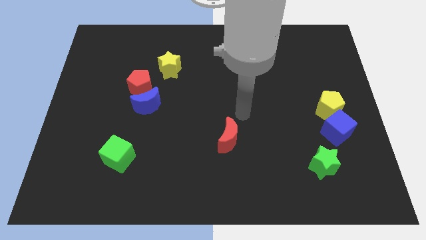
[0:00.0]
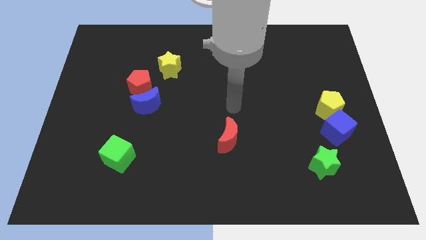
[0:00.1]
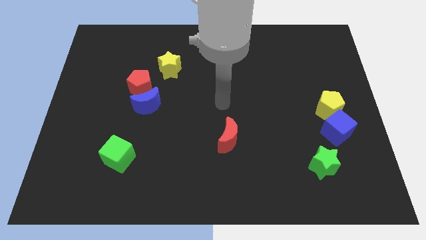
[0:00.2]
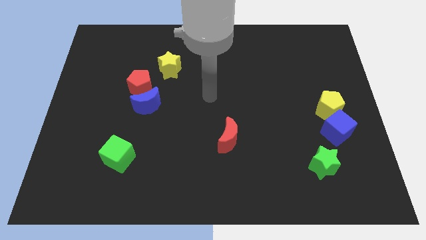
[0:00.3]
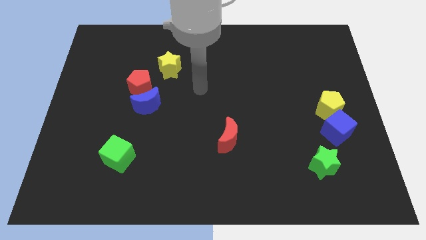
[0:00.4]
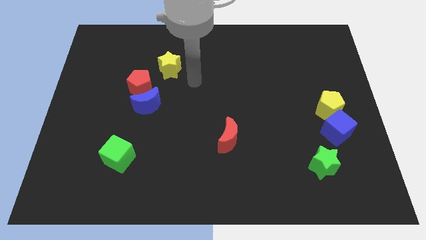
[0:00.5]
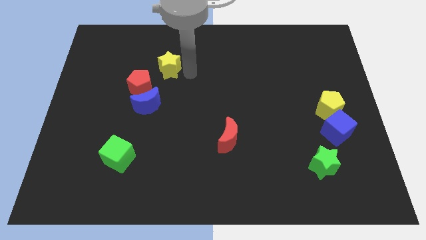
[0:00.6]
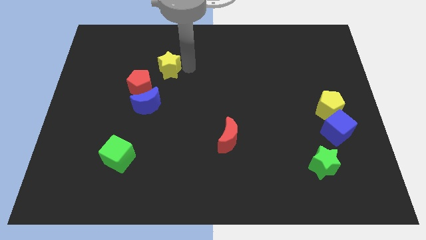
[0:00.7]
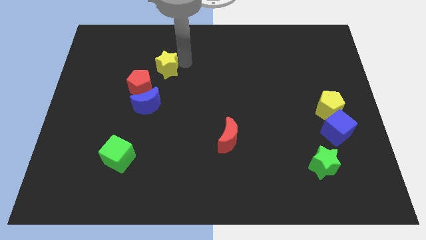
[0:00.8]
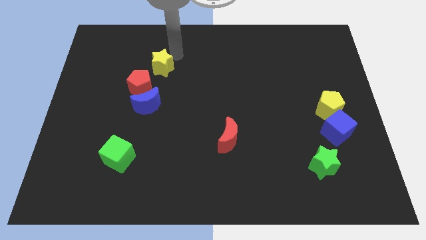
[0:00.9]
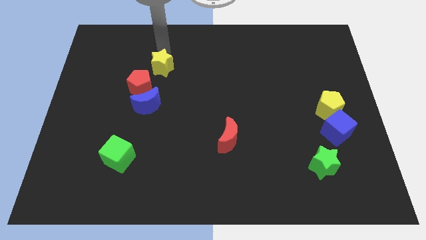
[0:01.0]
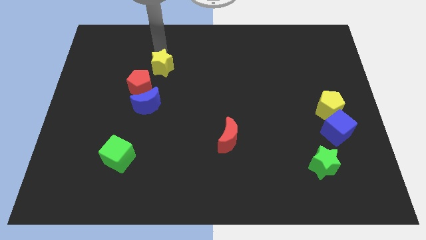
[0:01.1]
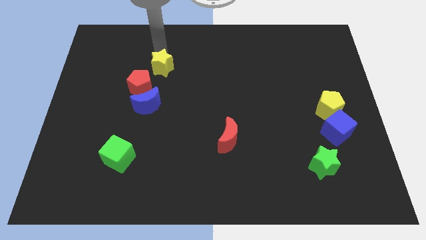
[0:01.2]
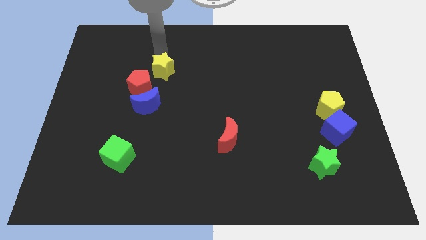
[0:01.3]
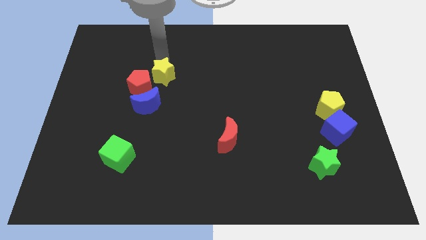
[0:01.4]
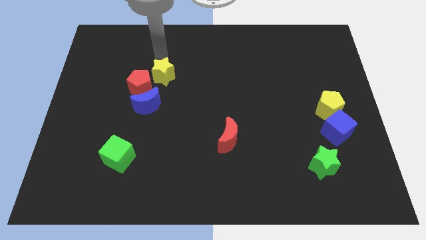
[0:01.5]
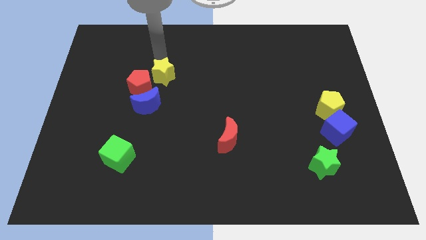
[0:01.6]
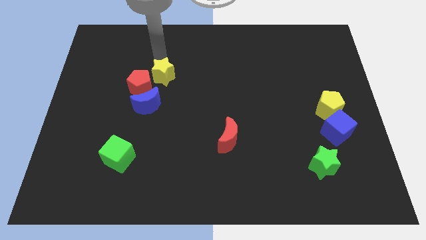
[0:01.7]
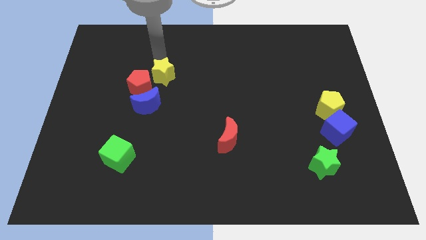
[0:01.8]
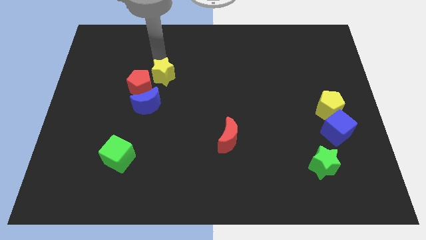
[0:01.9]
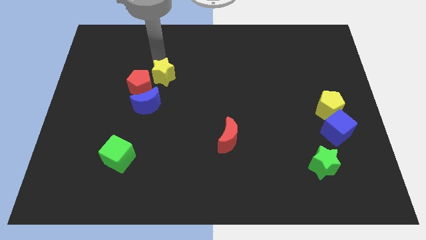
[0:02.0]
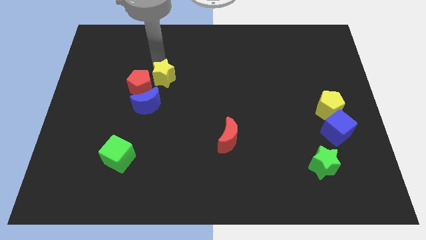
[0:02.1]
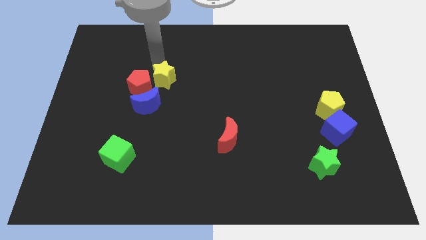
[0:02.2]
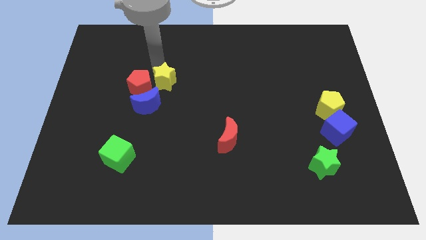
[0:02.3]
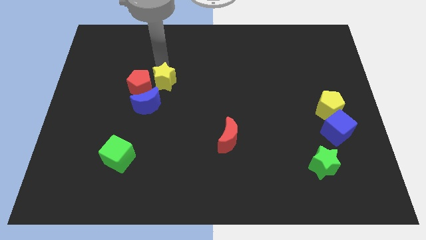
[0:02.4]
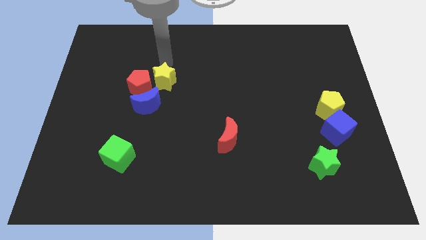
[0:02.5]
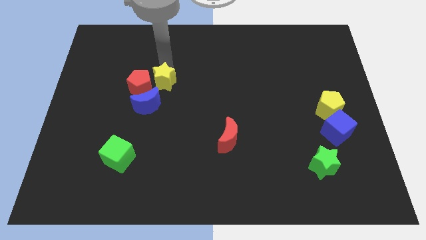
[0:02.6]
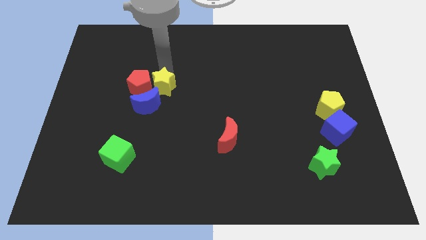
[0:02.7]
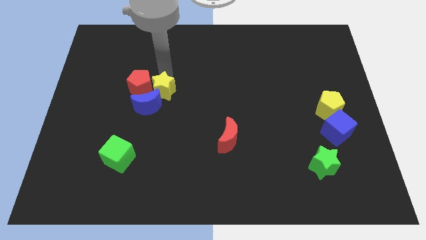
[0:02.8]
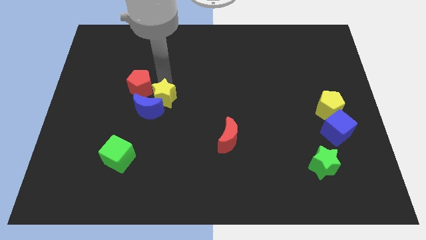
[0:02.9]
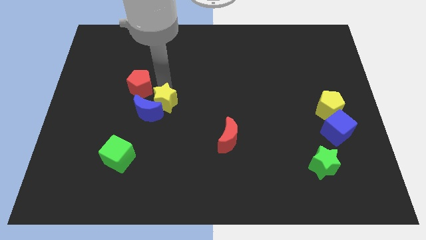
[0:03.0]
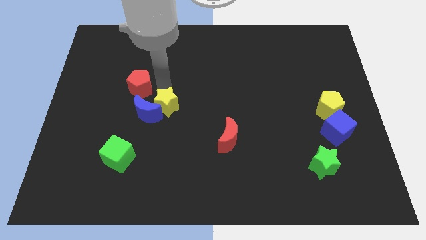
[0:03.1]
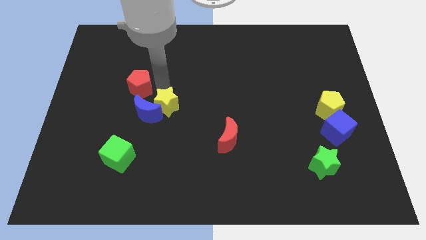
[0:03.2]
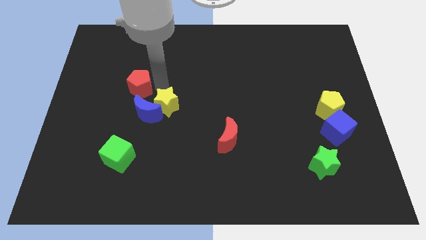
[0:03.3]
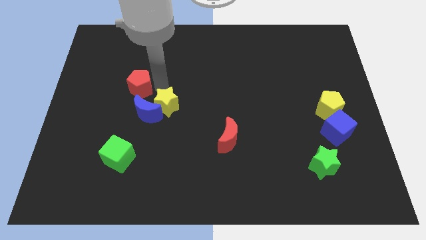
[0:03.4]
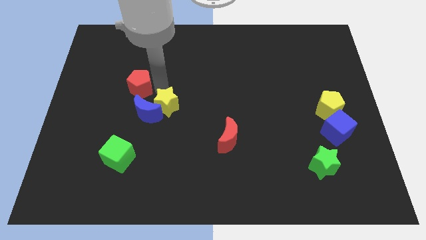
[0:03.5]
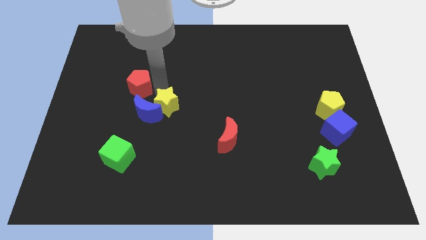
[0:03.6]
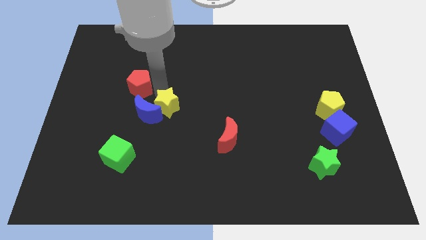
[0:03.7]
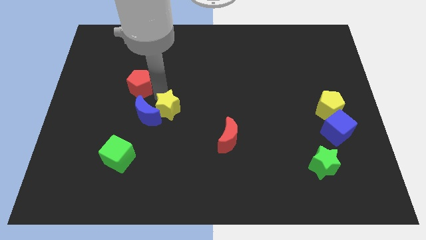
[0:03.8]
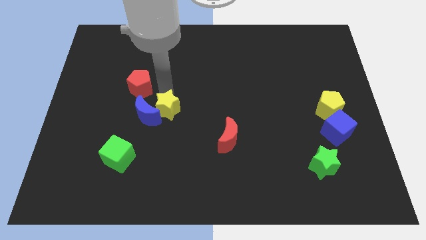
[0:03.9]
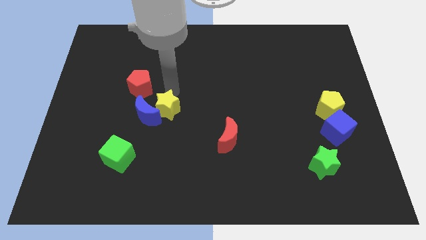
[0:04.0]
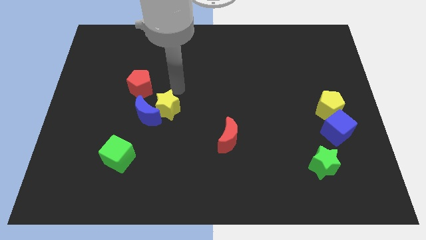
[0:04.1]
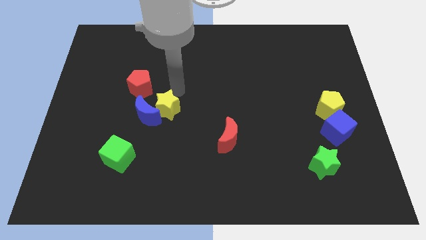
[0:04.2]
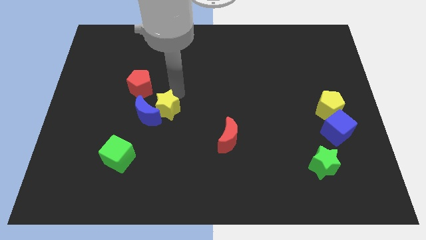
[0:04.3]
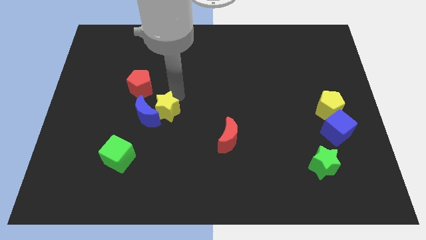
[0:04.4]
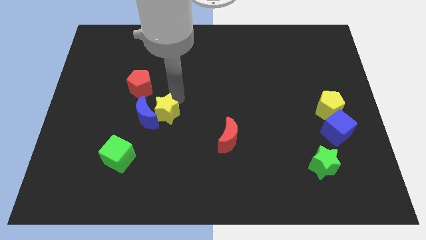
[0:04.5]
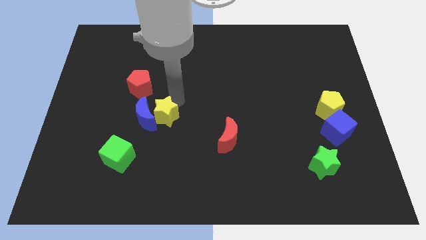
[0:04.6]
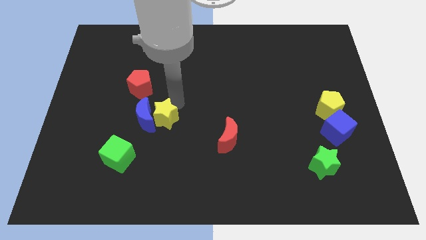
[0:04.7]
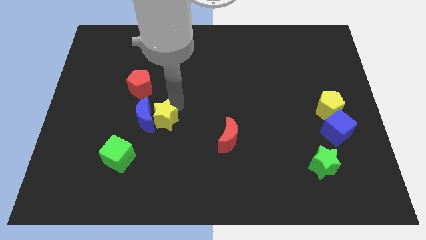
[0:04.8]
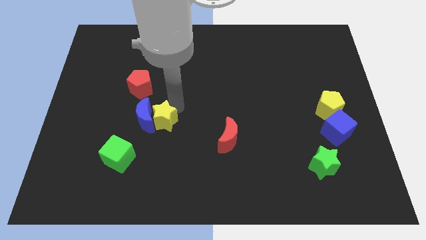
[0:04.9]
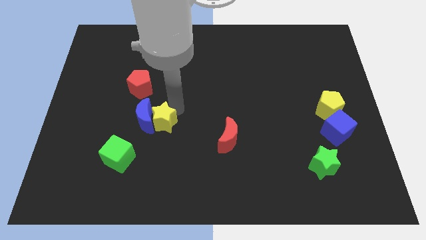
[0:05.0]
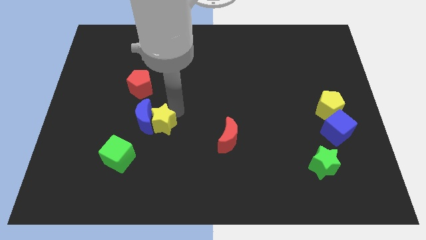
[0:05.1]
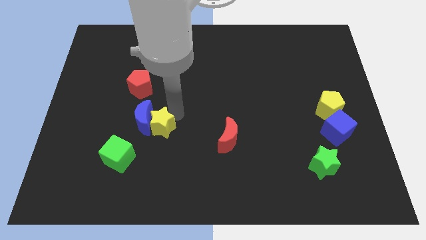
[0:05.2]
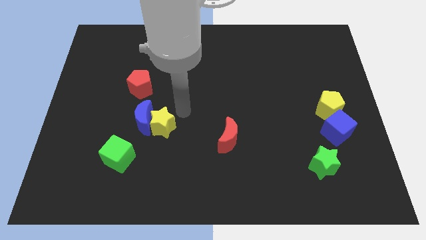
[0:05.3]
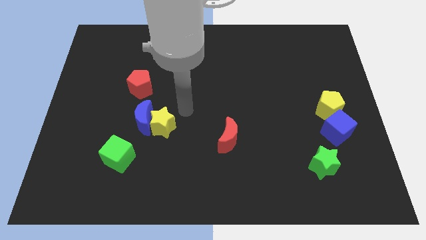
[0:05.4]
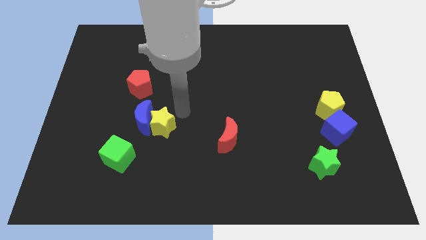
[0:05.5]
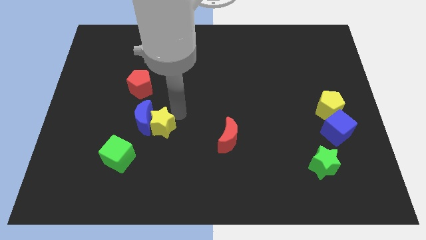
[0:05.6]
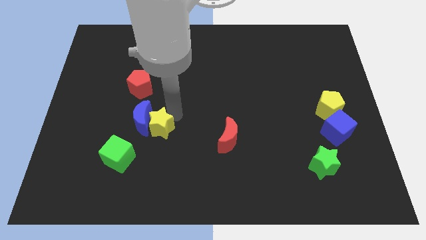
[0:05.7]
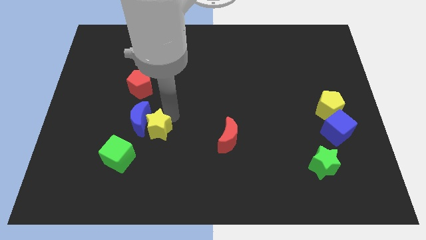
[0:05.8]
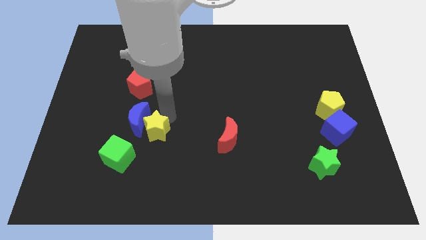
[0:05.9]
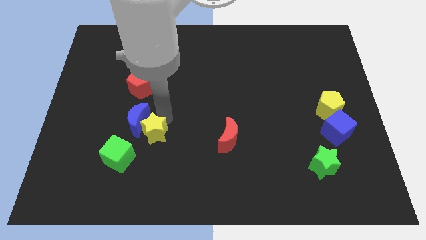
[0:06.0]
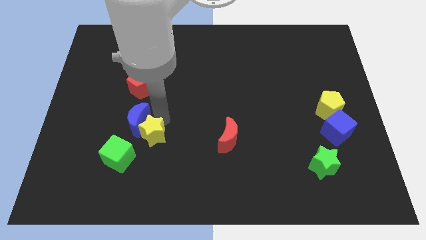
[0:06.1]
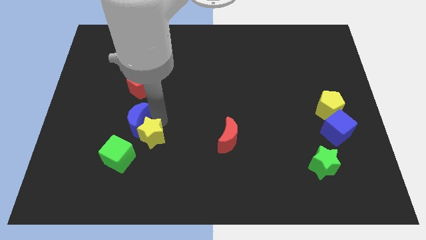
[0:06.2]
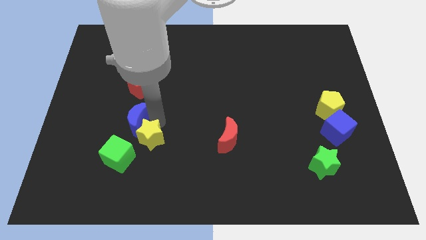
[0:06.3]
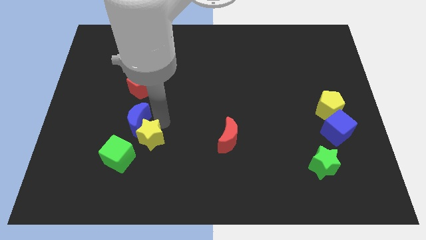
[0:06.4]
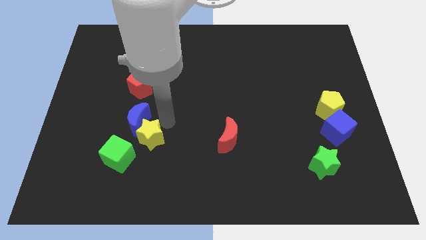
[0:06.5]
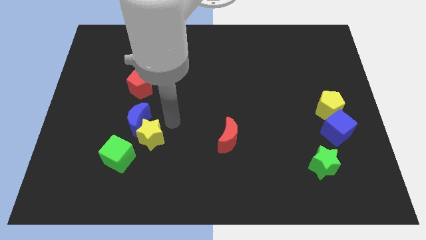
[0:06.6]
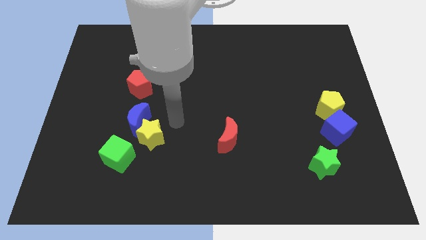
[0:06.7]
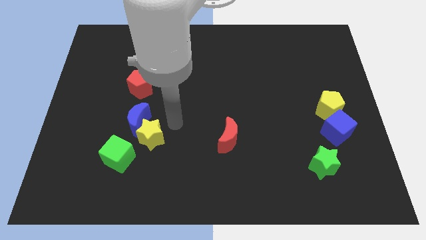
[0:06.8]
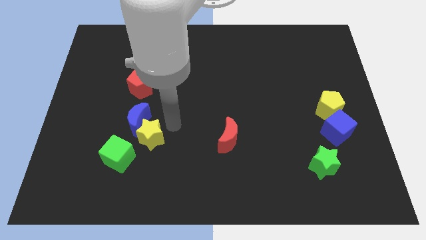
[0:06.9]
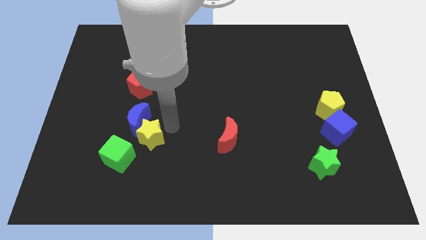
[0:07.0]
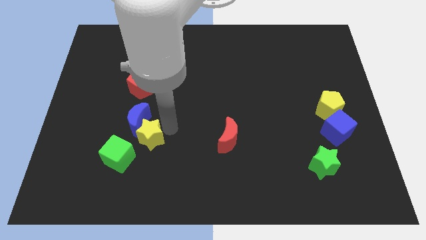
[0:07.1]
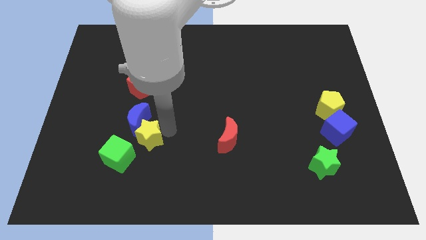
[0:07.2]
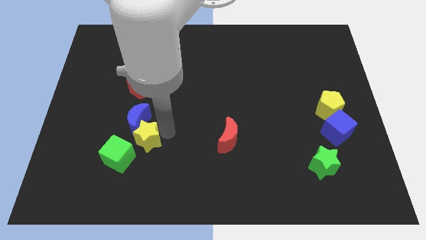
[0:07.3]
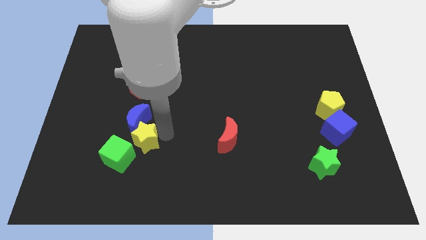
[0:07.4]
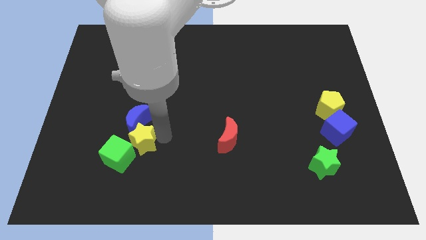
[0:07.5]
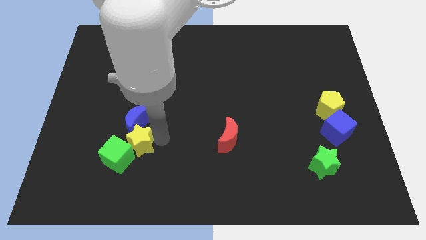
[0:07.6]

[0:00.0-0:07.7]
move the yellow star close to the green cube

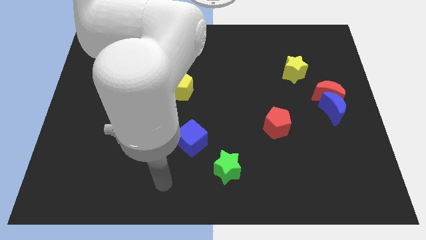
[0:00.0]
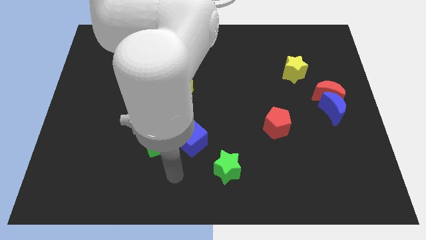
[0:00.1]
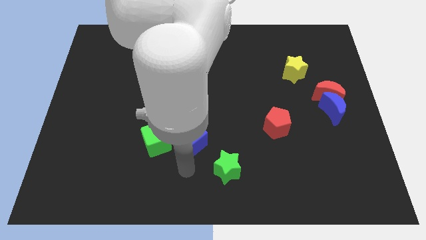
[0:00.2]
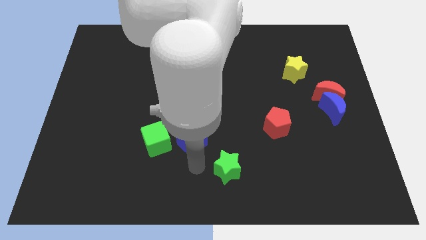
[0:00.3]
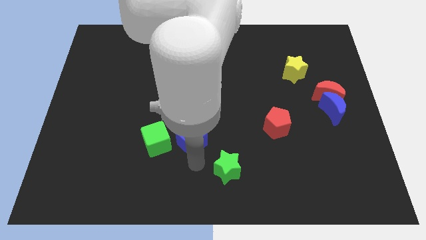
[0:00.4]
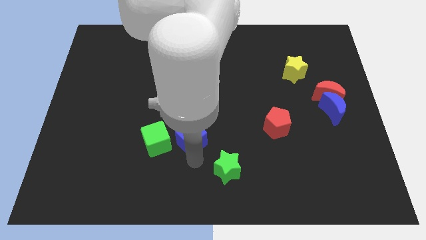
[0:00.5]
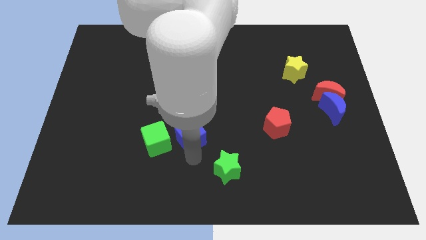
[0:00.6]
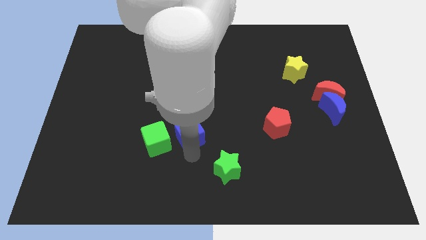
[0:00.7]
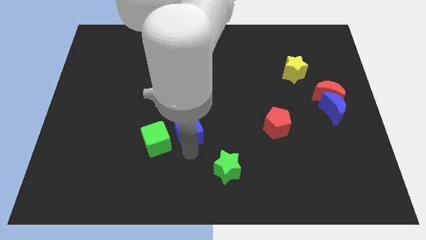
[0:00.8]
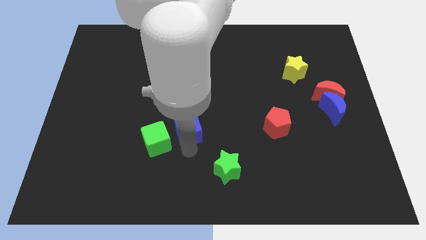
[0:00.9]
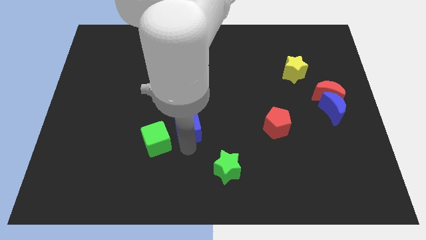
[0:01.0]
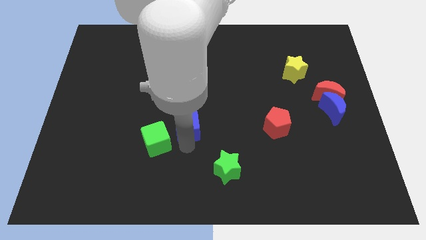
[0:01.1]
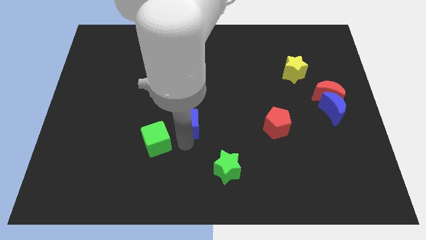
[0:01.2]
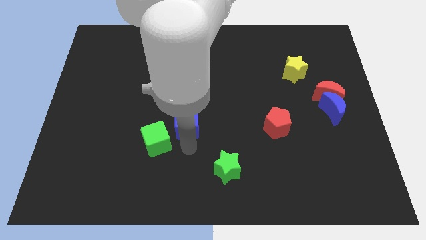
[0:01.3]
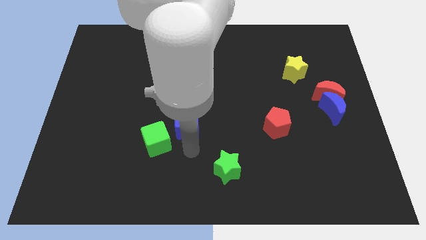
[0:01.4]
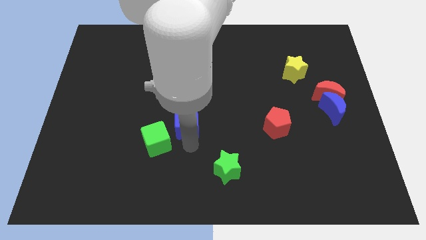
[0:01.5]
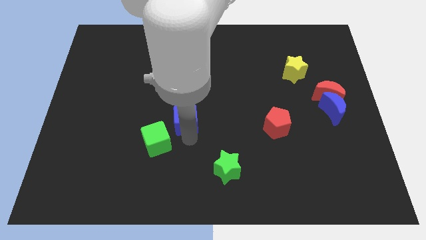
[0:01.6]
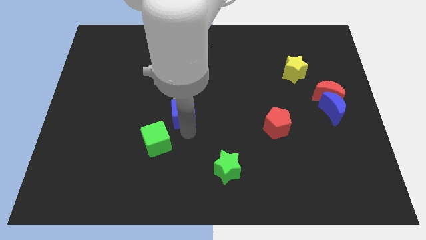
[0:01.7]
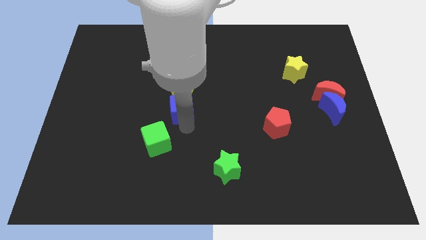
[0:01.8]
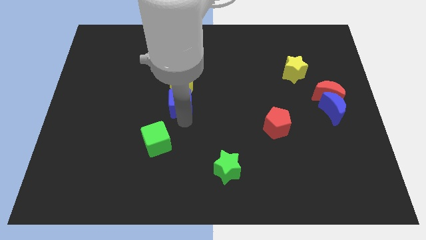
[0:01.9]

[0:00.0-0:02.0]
slide the blue cube towards the yellow pentagon
